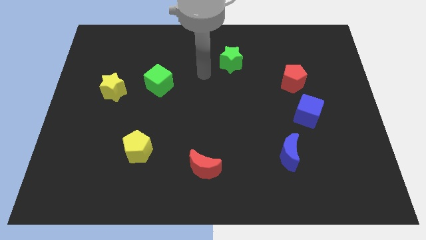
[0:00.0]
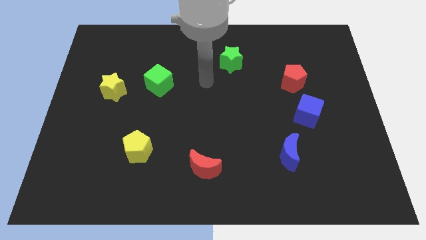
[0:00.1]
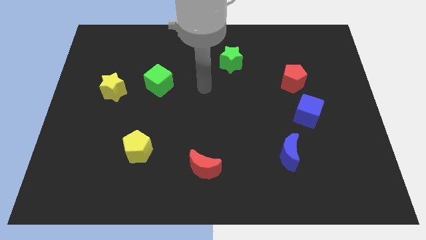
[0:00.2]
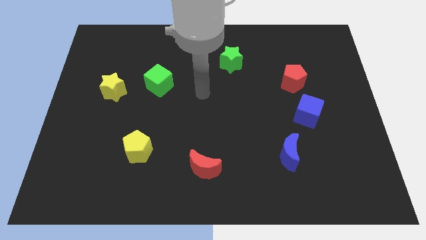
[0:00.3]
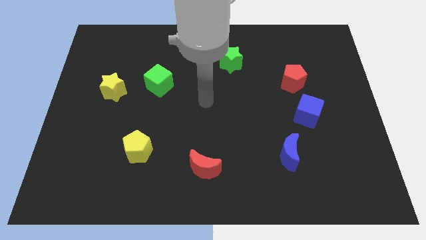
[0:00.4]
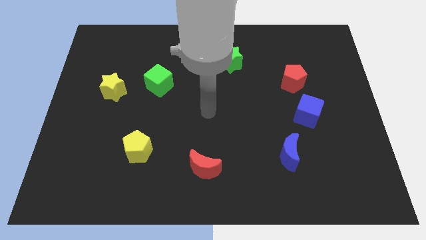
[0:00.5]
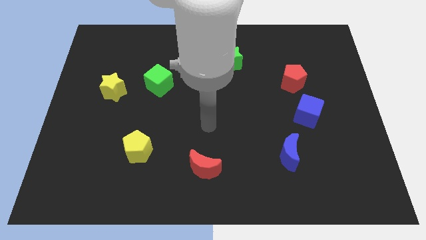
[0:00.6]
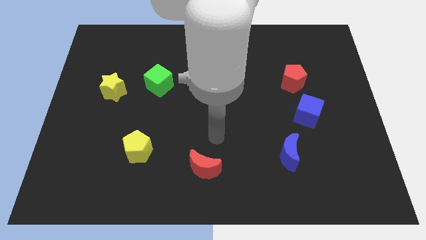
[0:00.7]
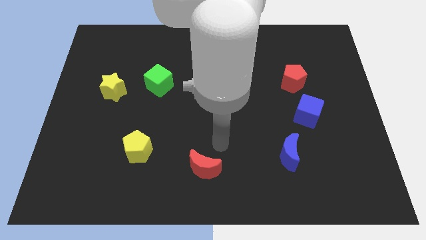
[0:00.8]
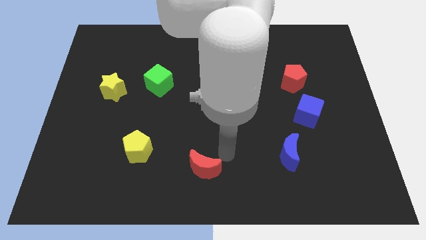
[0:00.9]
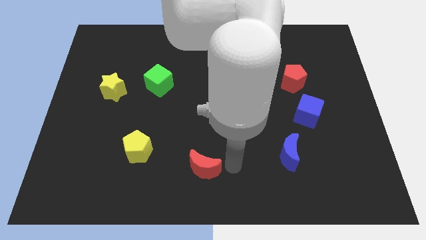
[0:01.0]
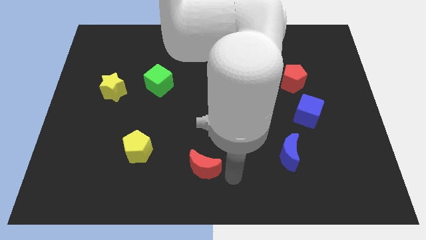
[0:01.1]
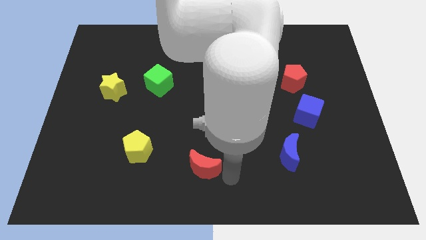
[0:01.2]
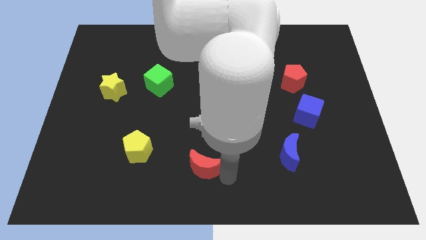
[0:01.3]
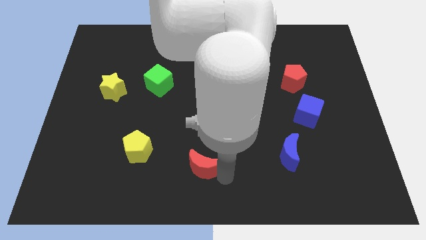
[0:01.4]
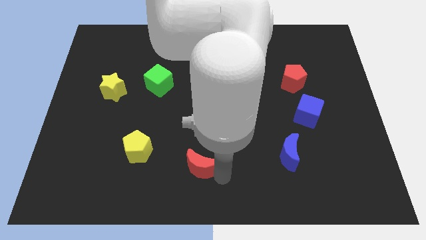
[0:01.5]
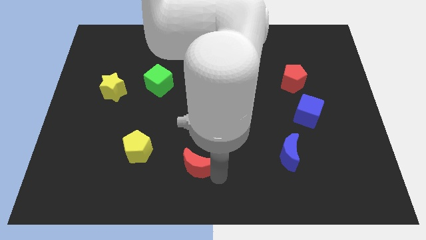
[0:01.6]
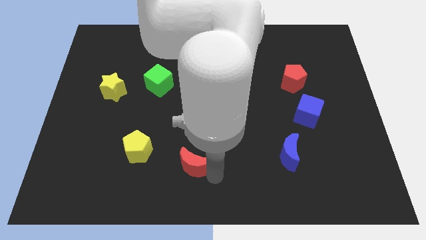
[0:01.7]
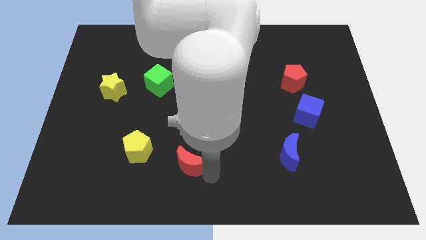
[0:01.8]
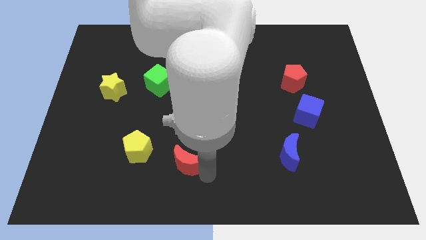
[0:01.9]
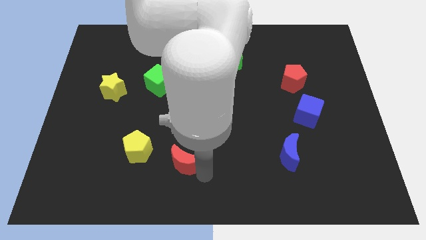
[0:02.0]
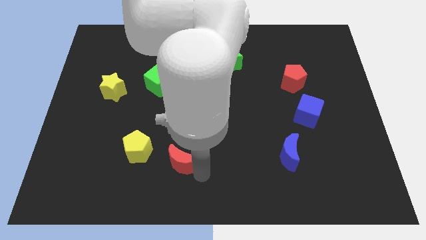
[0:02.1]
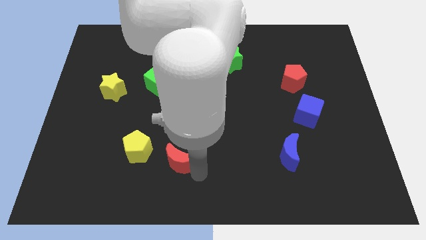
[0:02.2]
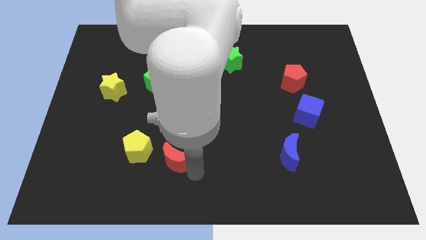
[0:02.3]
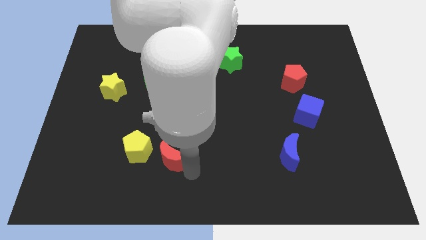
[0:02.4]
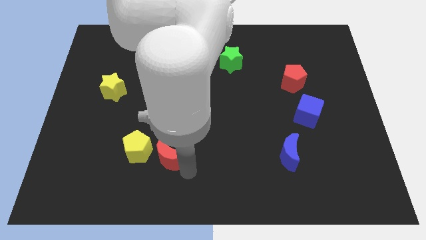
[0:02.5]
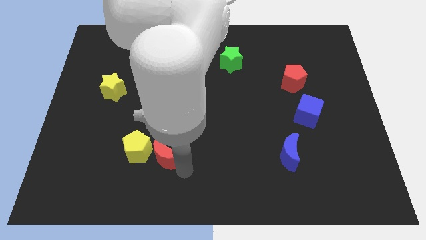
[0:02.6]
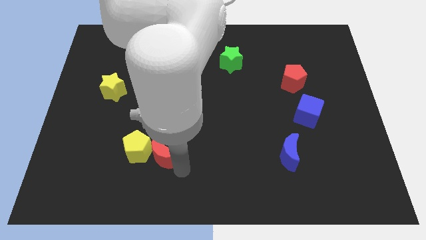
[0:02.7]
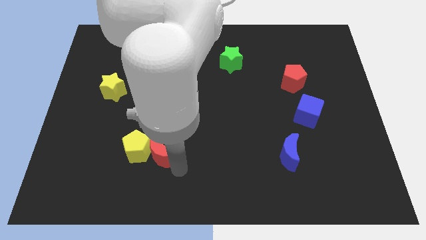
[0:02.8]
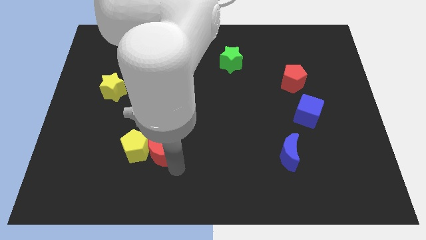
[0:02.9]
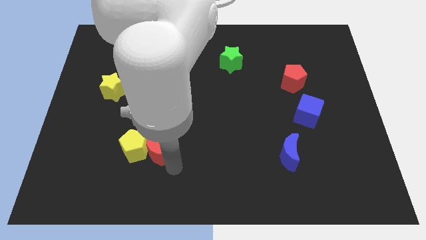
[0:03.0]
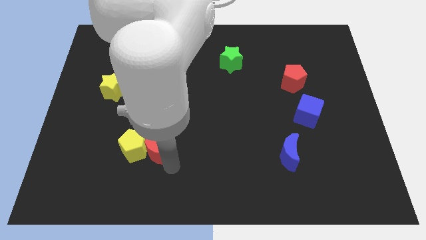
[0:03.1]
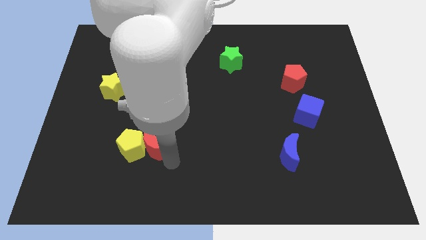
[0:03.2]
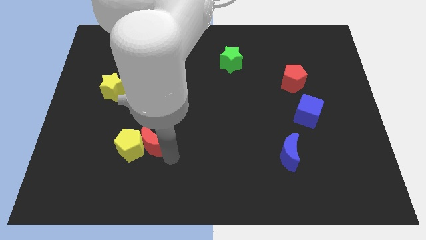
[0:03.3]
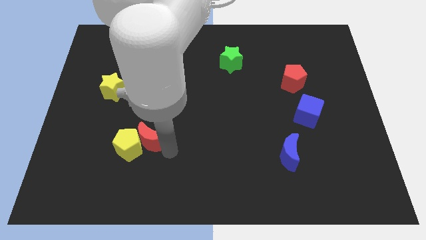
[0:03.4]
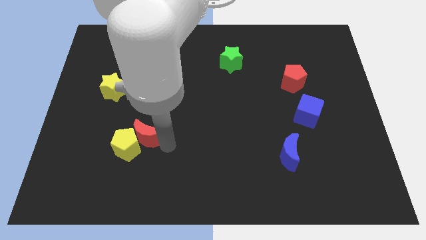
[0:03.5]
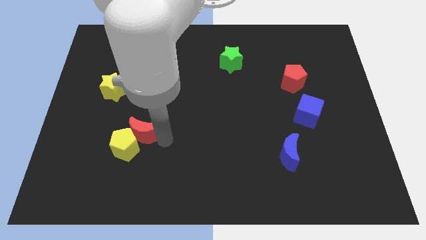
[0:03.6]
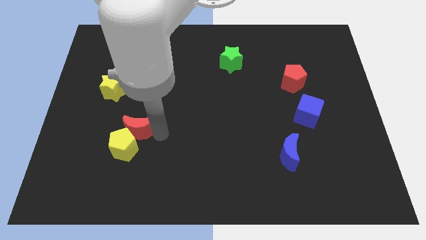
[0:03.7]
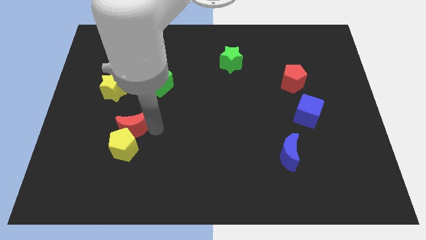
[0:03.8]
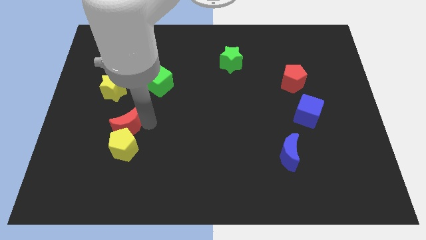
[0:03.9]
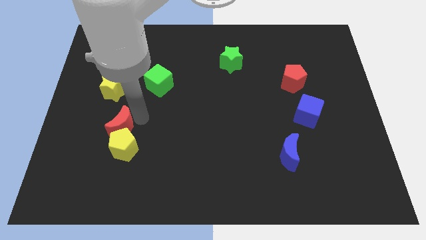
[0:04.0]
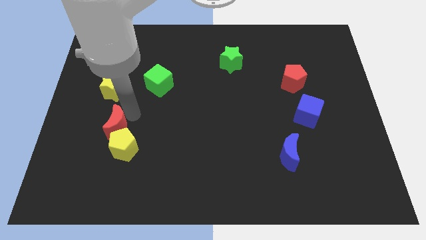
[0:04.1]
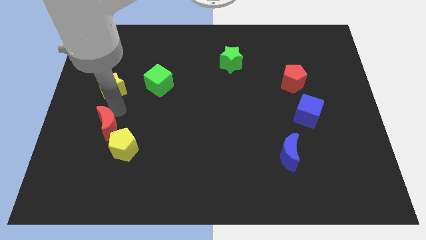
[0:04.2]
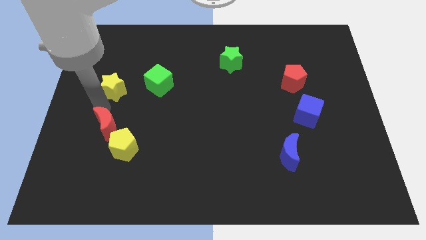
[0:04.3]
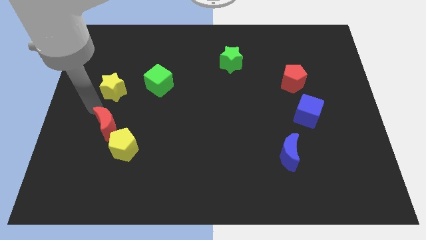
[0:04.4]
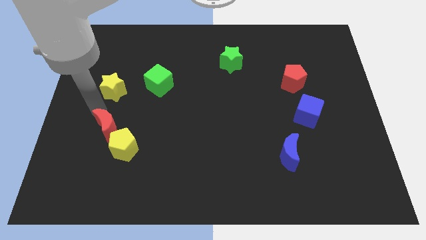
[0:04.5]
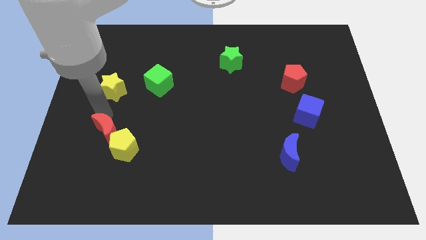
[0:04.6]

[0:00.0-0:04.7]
put the red moon to the left side of the yellow pentagon

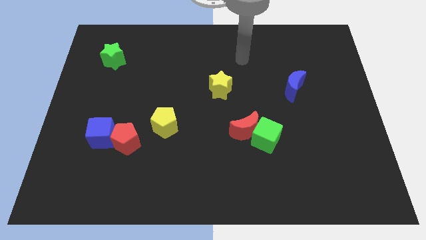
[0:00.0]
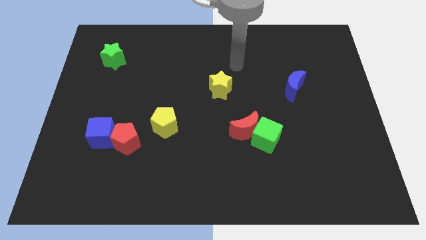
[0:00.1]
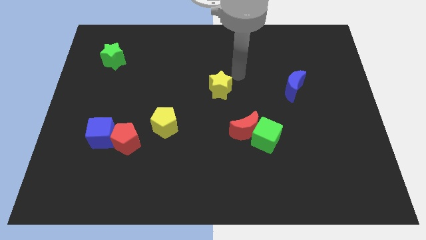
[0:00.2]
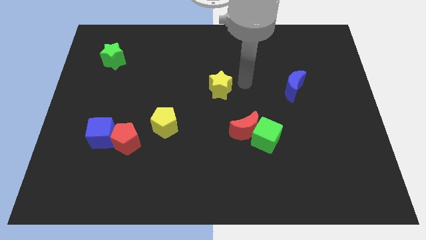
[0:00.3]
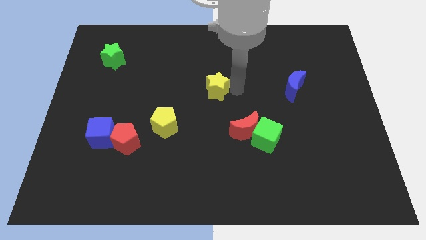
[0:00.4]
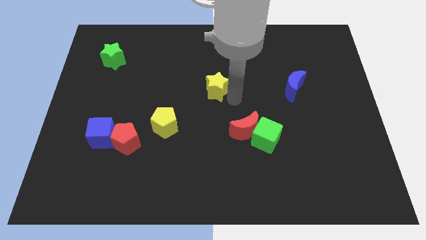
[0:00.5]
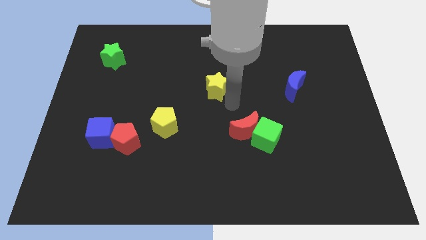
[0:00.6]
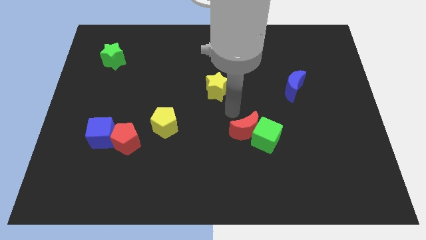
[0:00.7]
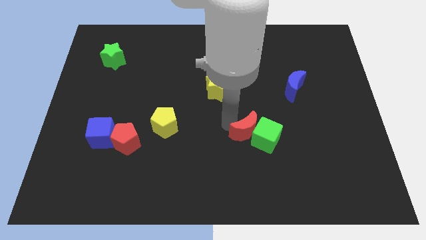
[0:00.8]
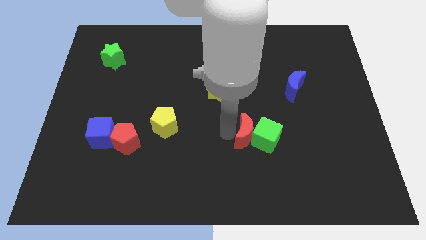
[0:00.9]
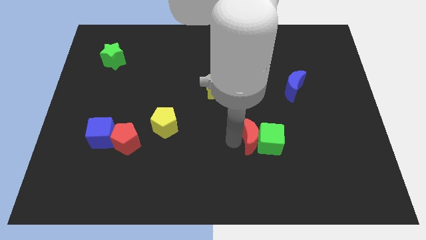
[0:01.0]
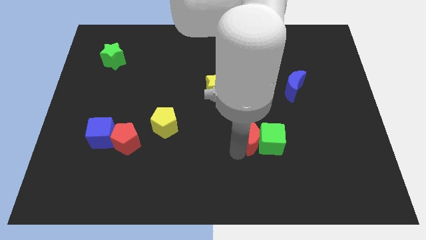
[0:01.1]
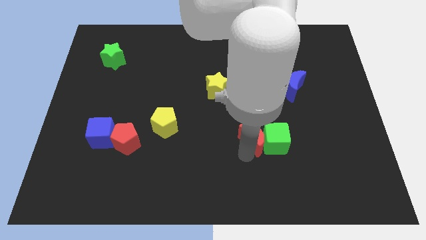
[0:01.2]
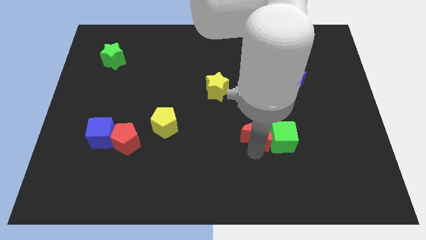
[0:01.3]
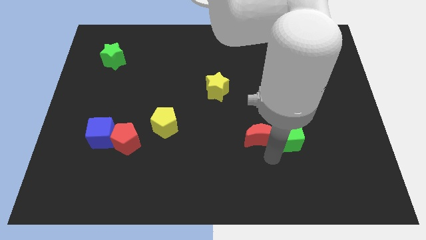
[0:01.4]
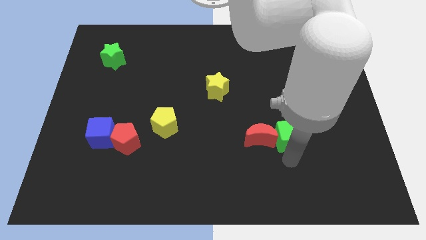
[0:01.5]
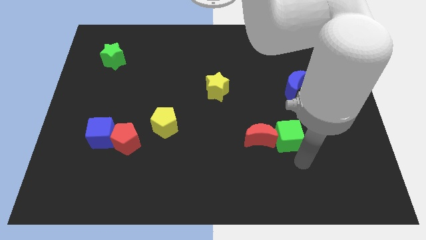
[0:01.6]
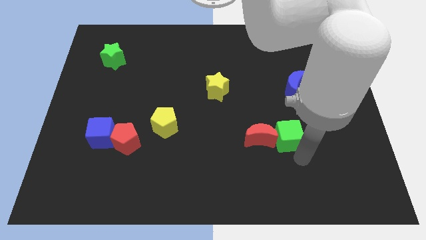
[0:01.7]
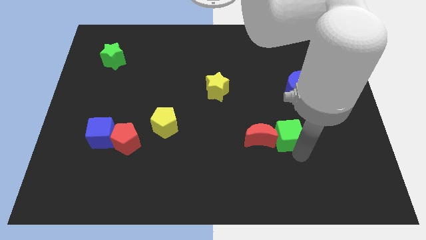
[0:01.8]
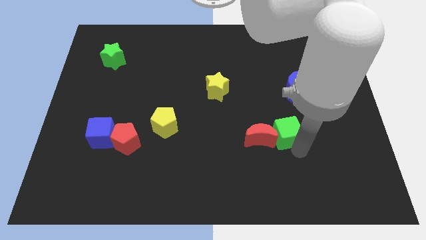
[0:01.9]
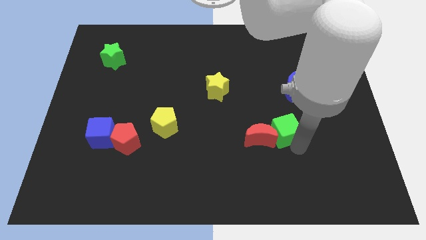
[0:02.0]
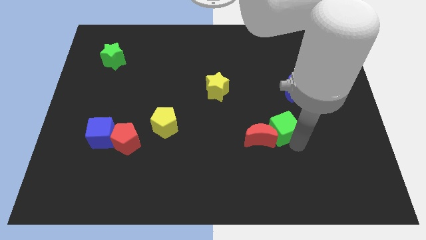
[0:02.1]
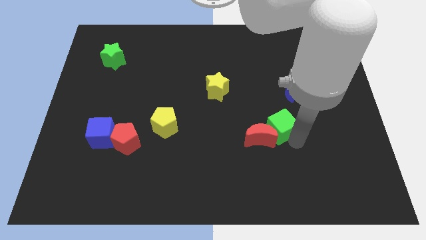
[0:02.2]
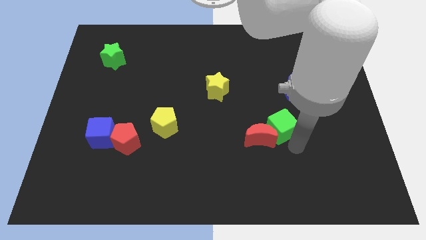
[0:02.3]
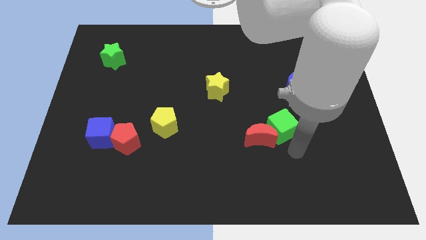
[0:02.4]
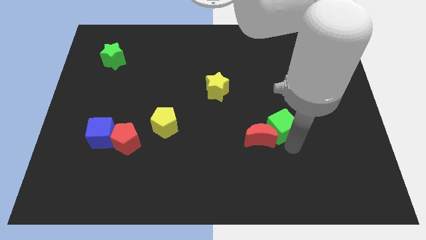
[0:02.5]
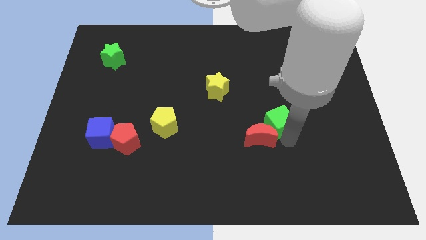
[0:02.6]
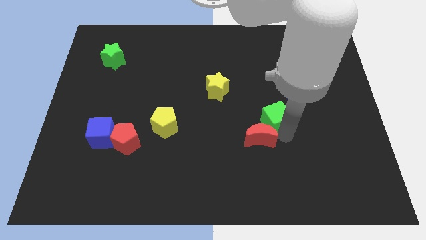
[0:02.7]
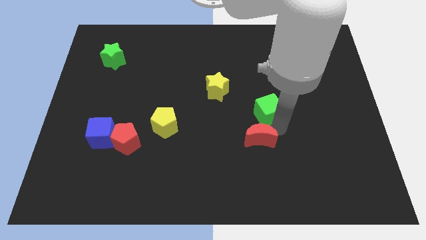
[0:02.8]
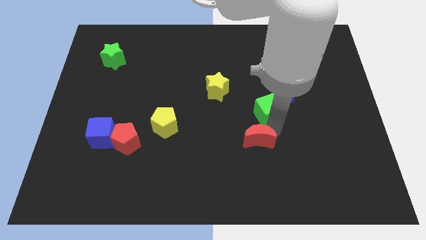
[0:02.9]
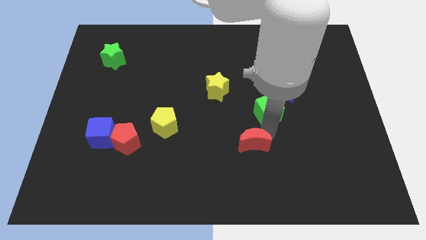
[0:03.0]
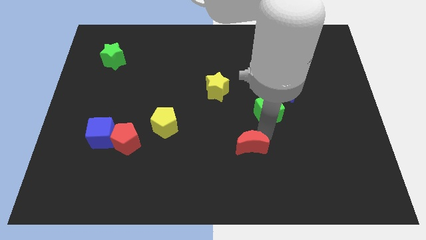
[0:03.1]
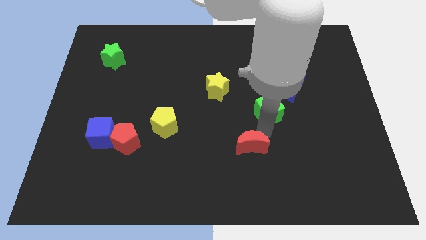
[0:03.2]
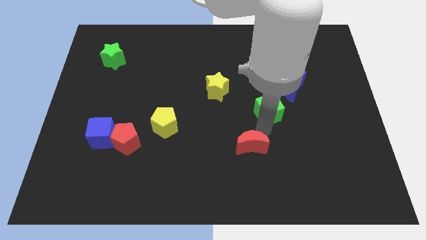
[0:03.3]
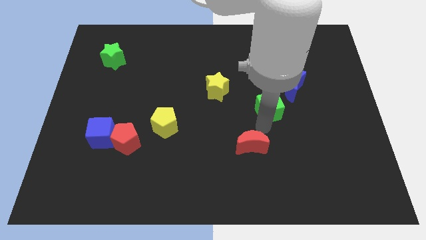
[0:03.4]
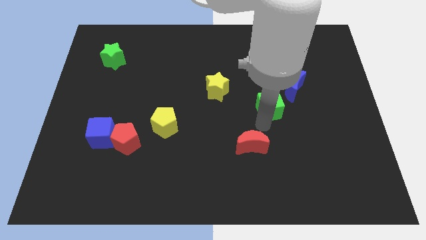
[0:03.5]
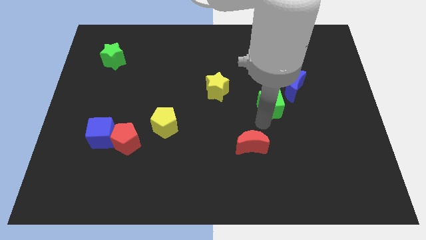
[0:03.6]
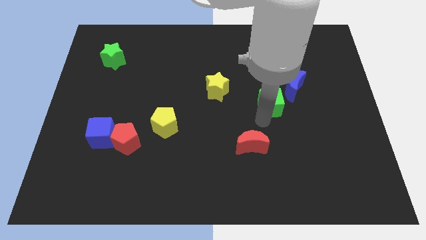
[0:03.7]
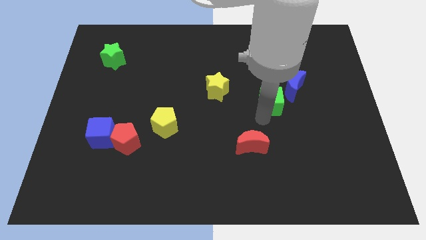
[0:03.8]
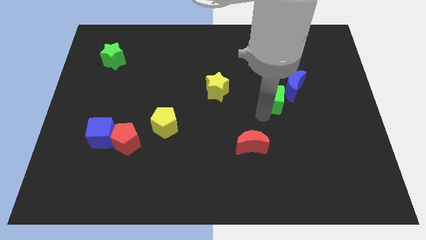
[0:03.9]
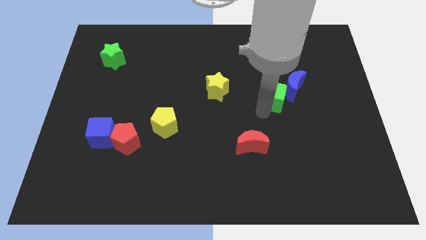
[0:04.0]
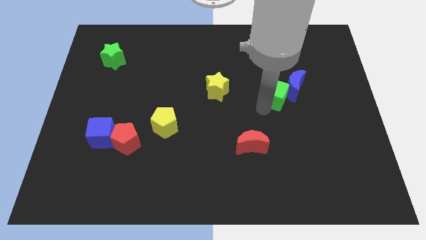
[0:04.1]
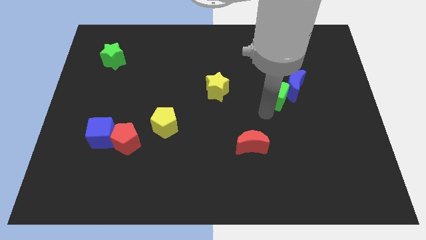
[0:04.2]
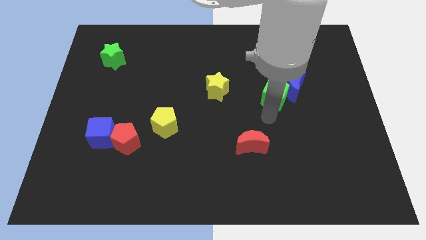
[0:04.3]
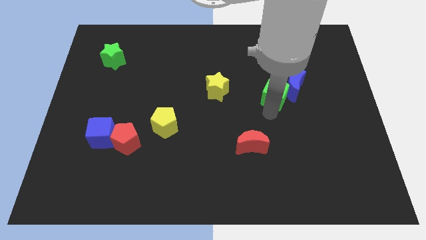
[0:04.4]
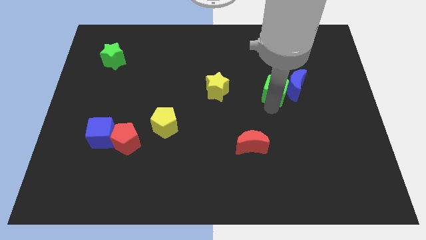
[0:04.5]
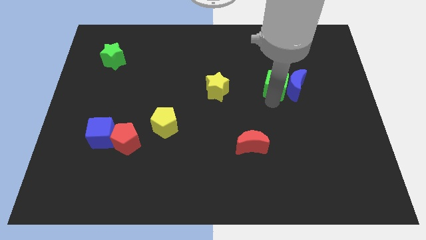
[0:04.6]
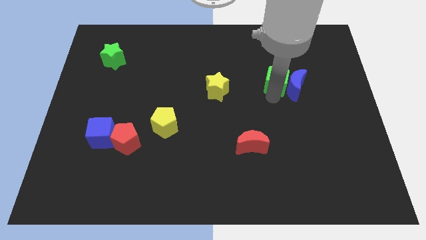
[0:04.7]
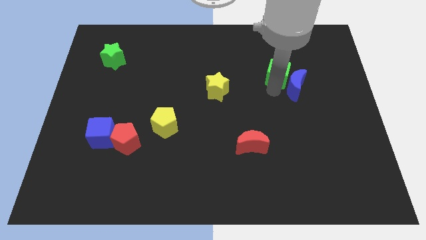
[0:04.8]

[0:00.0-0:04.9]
slide the green cube to the top of the blue moon
